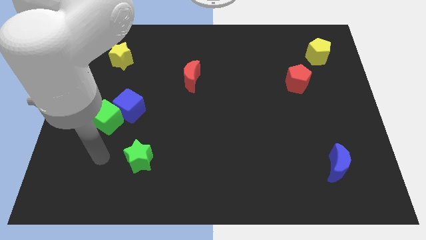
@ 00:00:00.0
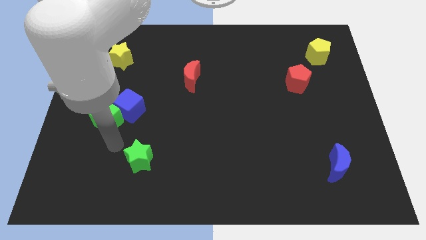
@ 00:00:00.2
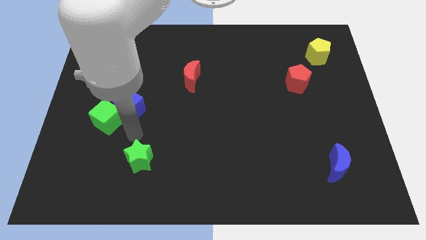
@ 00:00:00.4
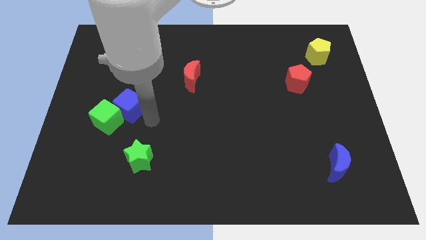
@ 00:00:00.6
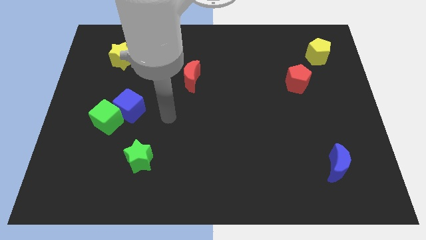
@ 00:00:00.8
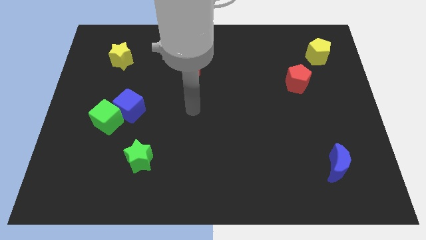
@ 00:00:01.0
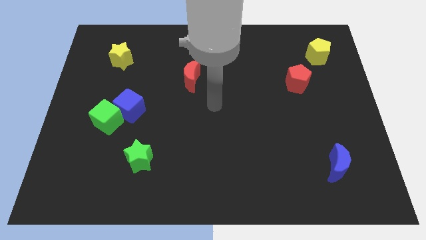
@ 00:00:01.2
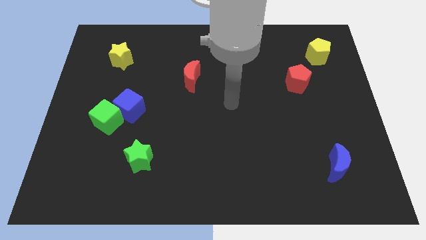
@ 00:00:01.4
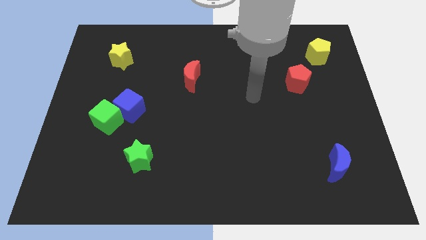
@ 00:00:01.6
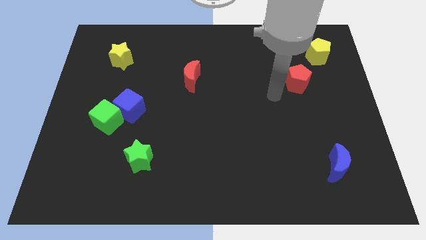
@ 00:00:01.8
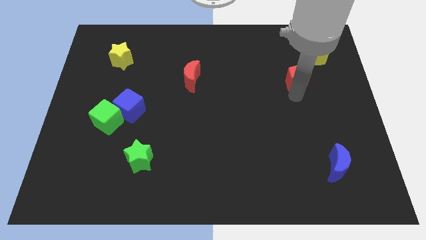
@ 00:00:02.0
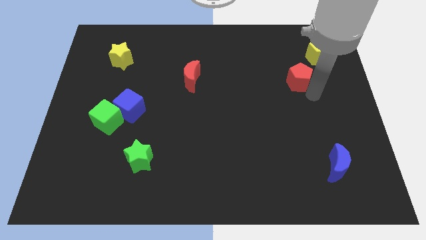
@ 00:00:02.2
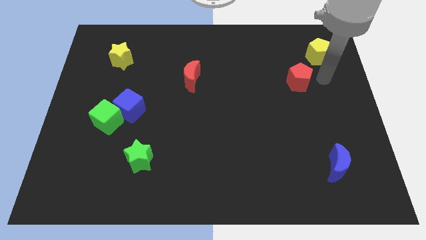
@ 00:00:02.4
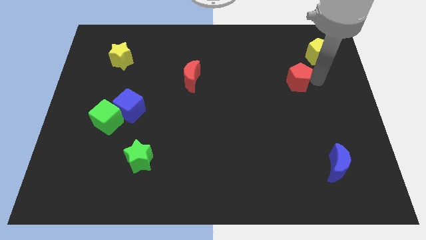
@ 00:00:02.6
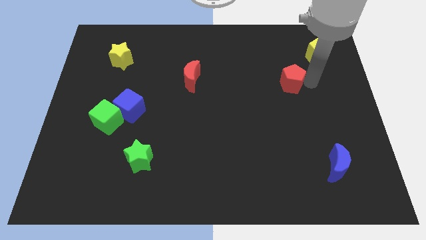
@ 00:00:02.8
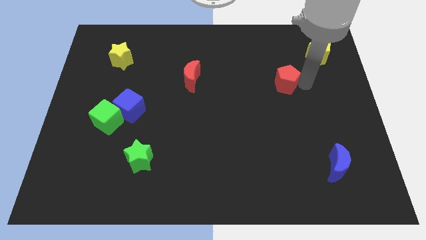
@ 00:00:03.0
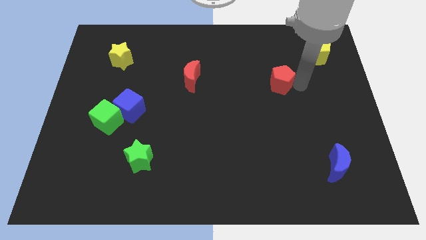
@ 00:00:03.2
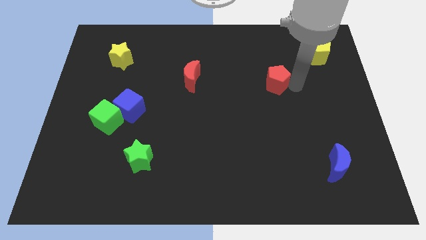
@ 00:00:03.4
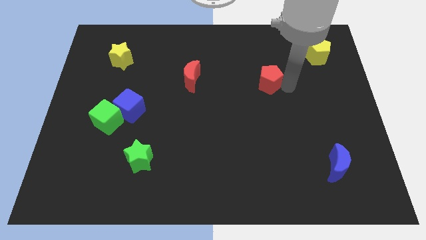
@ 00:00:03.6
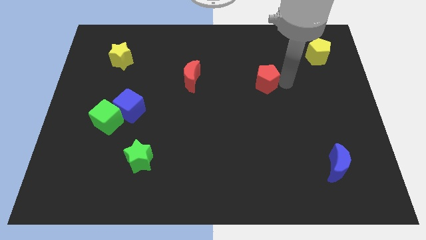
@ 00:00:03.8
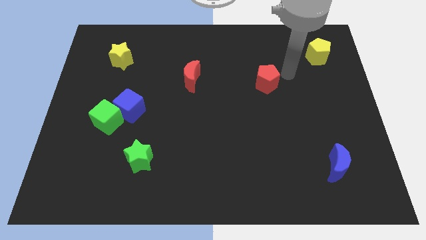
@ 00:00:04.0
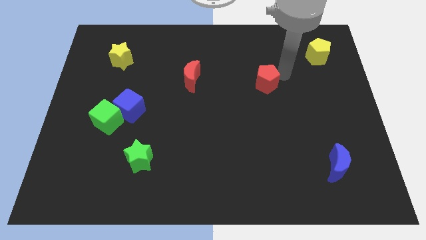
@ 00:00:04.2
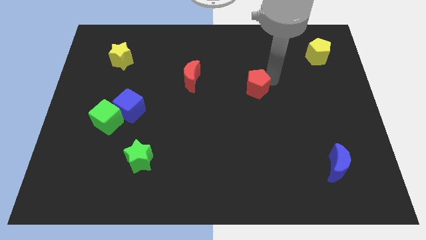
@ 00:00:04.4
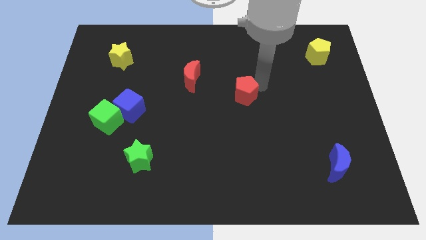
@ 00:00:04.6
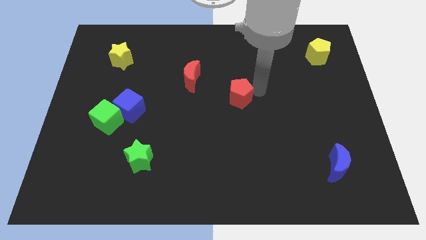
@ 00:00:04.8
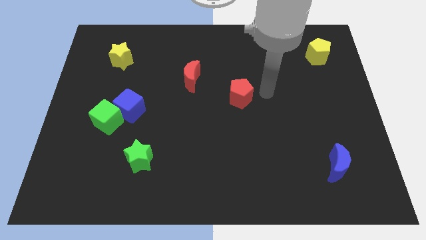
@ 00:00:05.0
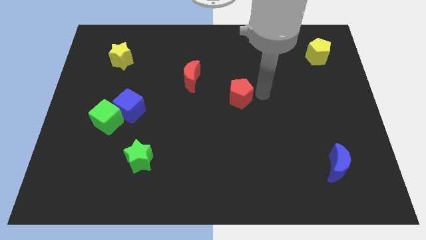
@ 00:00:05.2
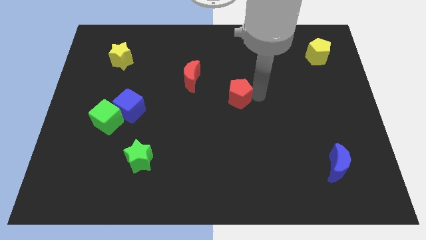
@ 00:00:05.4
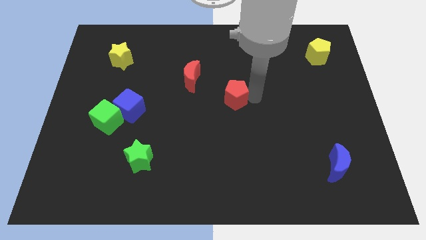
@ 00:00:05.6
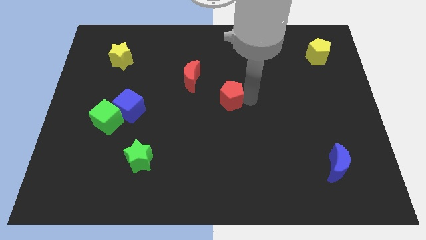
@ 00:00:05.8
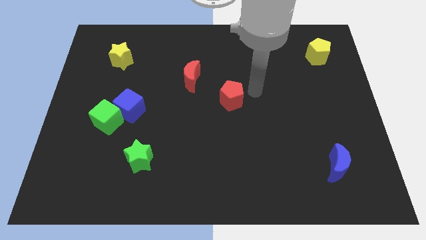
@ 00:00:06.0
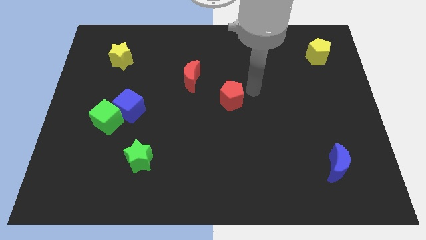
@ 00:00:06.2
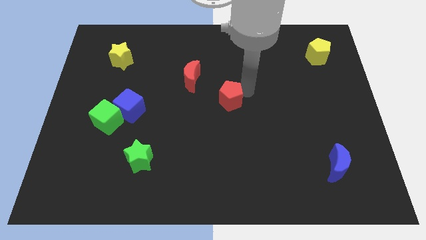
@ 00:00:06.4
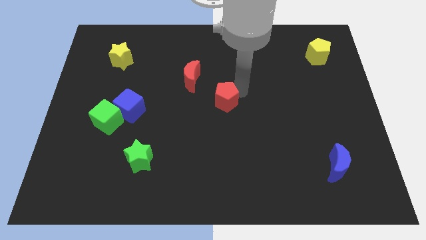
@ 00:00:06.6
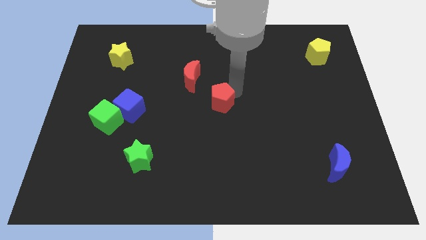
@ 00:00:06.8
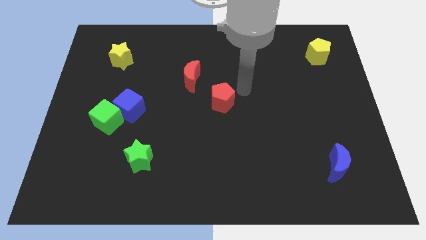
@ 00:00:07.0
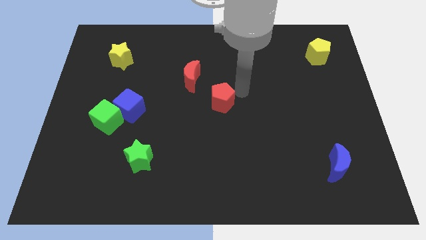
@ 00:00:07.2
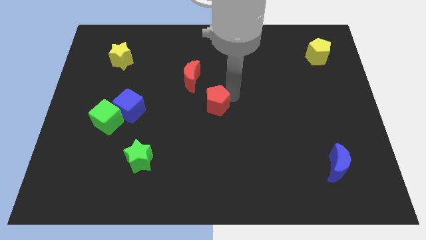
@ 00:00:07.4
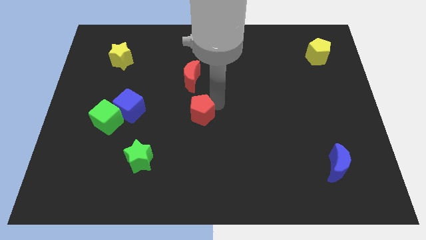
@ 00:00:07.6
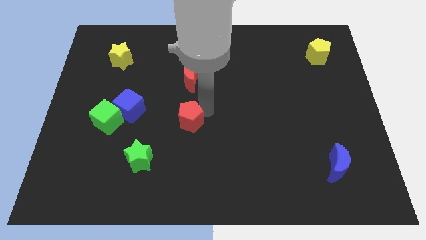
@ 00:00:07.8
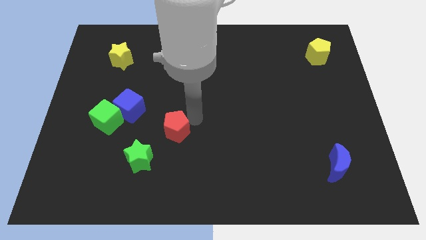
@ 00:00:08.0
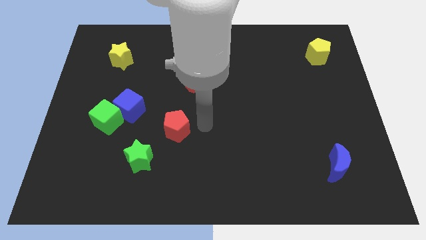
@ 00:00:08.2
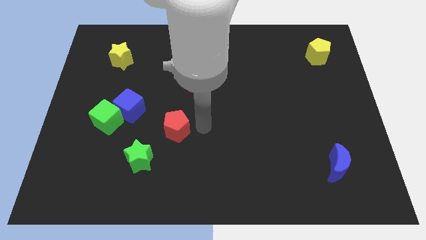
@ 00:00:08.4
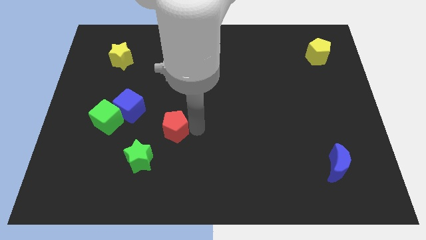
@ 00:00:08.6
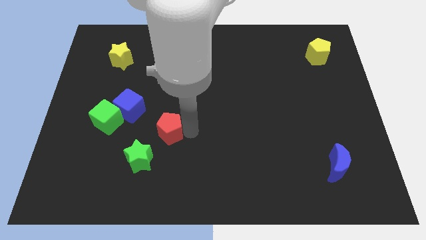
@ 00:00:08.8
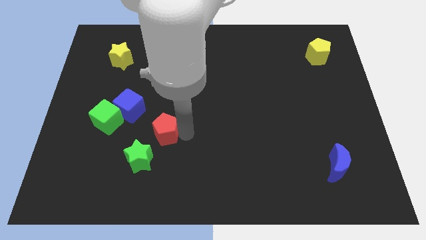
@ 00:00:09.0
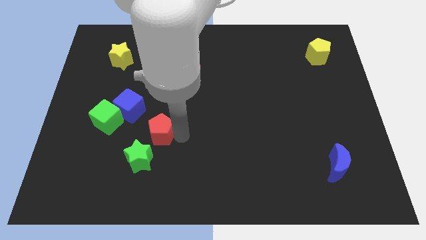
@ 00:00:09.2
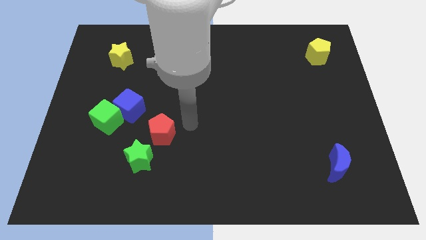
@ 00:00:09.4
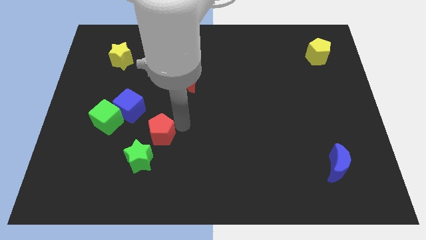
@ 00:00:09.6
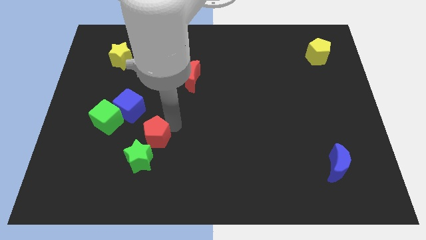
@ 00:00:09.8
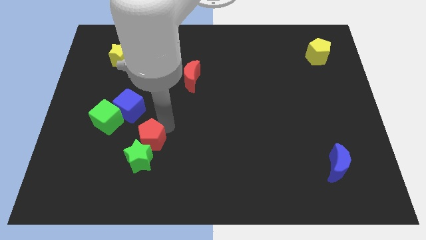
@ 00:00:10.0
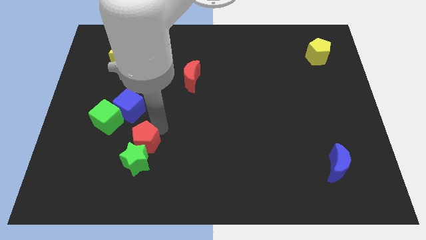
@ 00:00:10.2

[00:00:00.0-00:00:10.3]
push the red pentagon below the blue cube

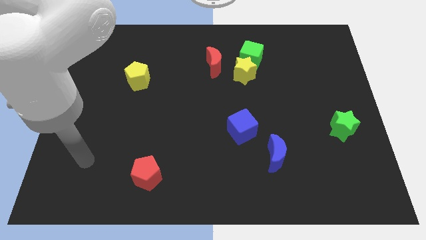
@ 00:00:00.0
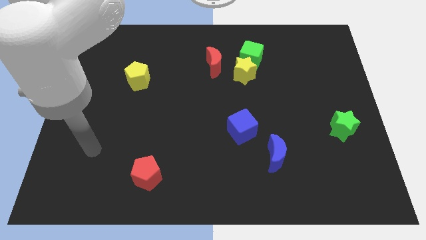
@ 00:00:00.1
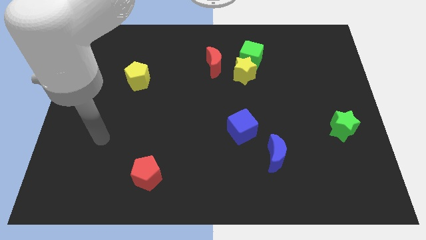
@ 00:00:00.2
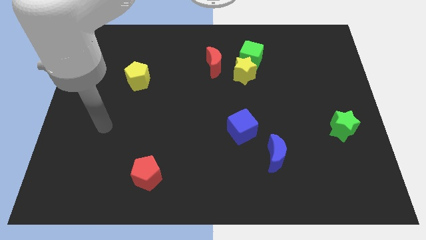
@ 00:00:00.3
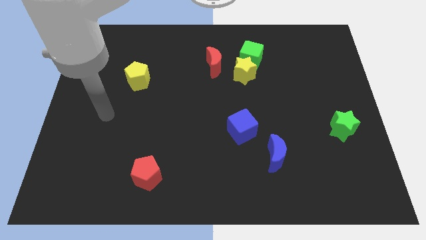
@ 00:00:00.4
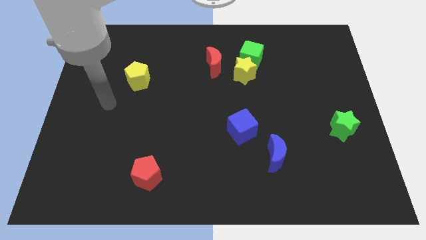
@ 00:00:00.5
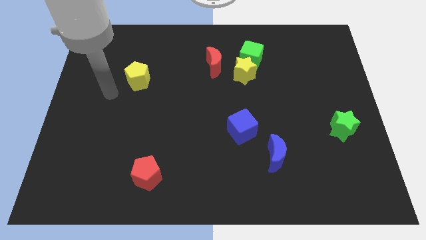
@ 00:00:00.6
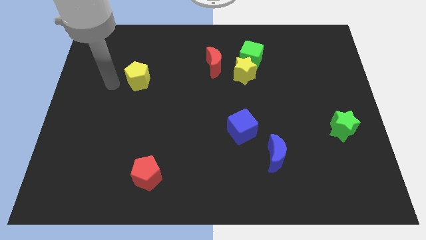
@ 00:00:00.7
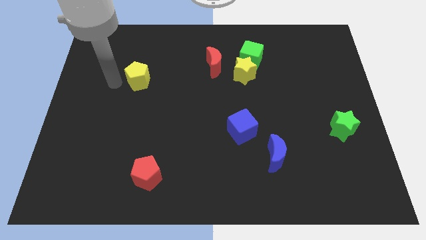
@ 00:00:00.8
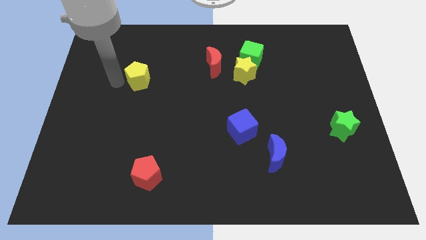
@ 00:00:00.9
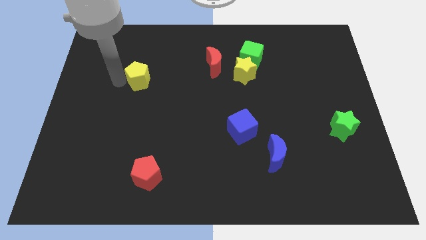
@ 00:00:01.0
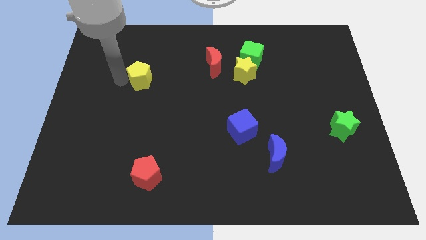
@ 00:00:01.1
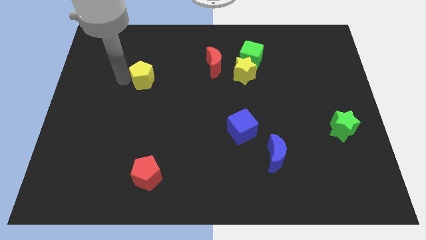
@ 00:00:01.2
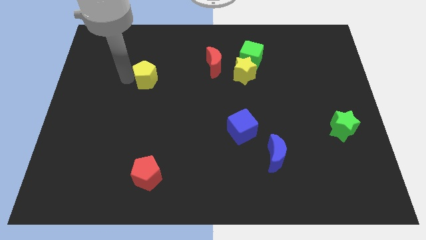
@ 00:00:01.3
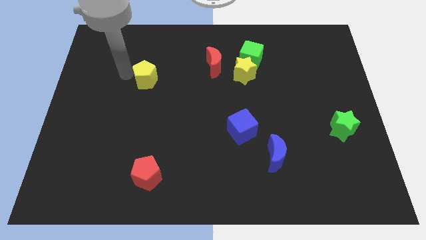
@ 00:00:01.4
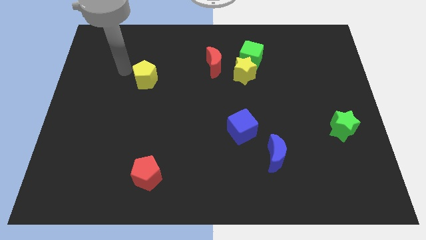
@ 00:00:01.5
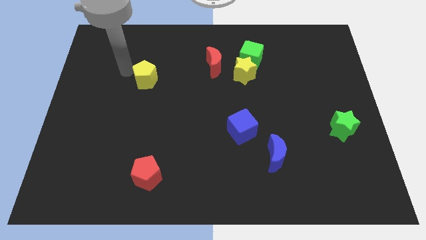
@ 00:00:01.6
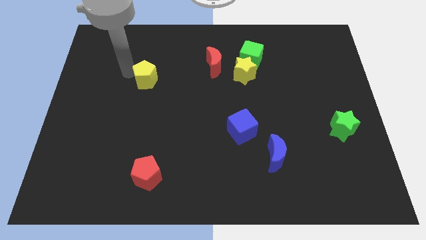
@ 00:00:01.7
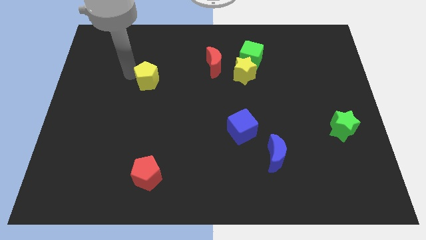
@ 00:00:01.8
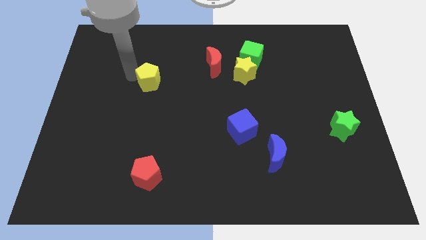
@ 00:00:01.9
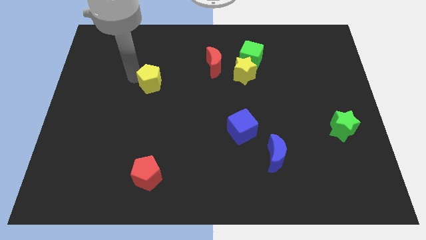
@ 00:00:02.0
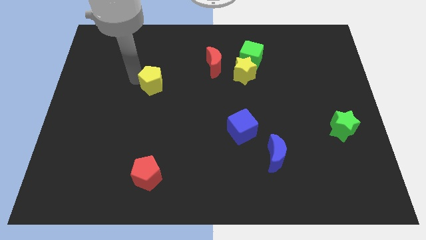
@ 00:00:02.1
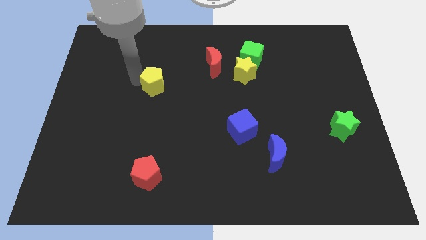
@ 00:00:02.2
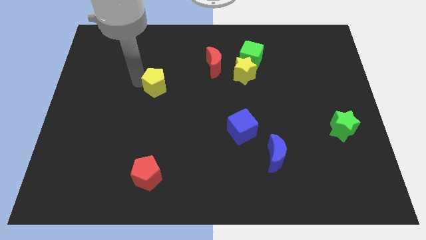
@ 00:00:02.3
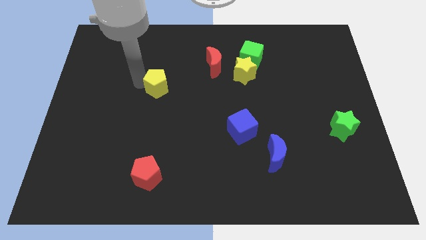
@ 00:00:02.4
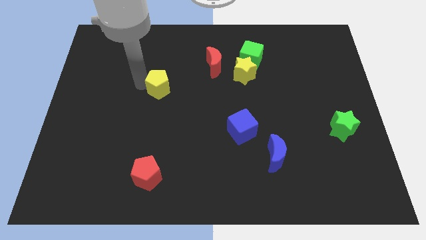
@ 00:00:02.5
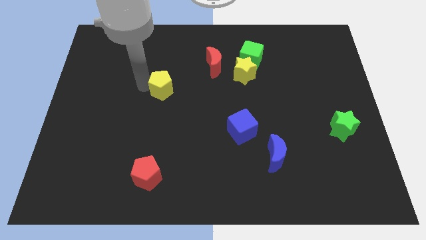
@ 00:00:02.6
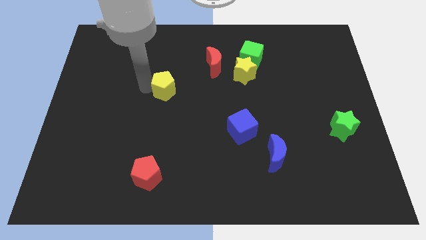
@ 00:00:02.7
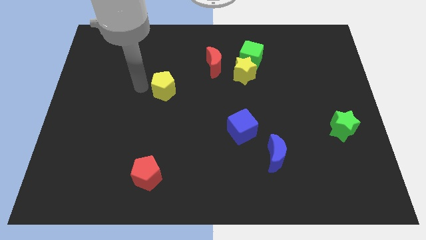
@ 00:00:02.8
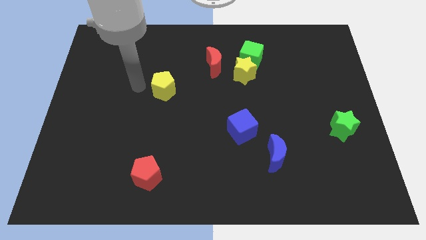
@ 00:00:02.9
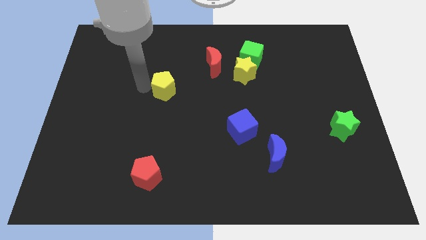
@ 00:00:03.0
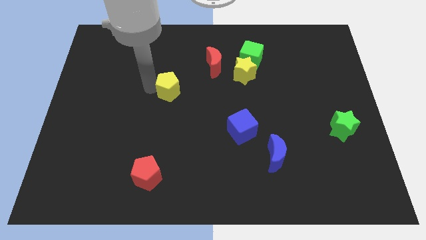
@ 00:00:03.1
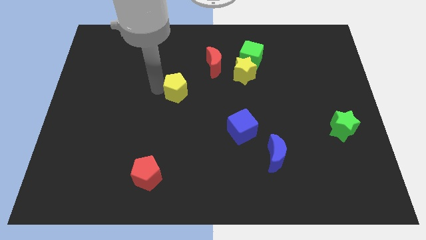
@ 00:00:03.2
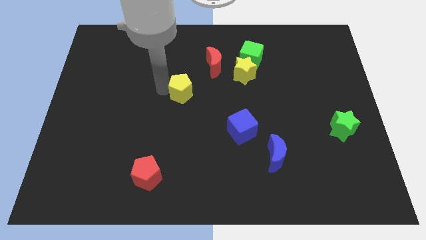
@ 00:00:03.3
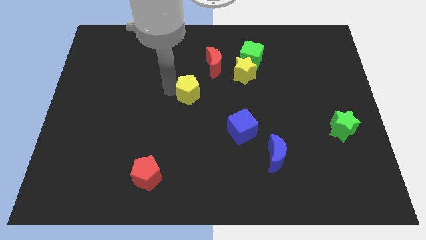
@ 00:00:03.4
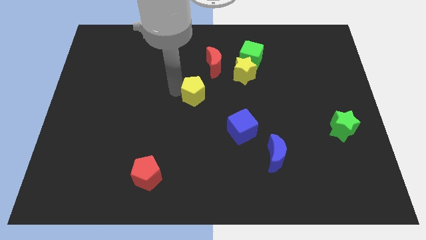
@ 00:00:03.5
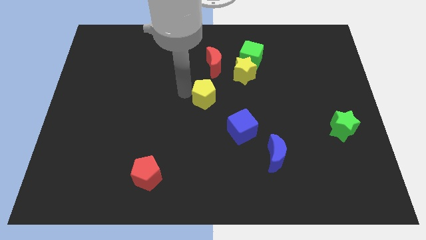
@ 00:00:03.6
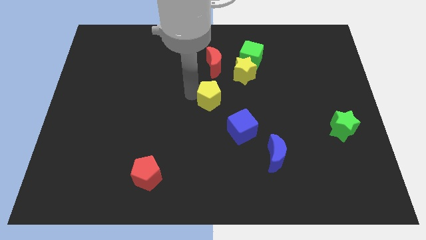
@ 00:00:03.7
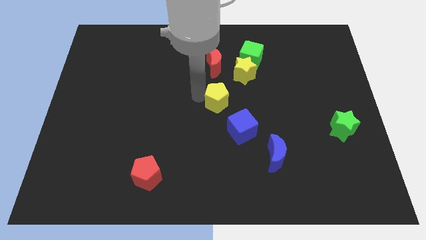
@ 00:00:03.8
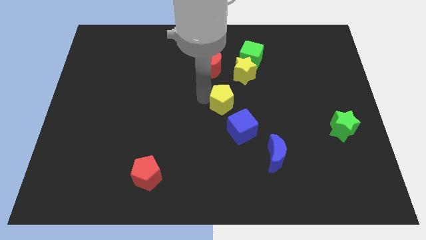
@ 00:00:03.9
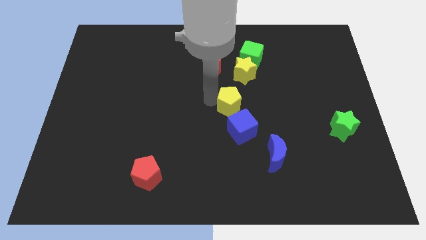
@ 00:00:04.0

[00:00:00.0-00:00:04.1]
put the yellow pentagon to the bottom of the yellow star
